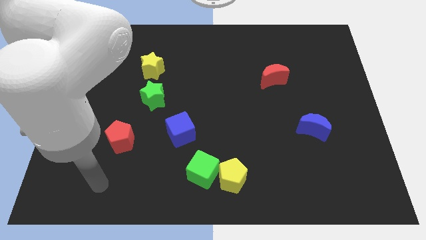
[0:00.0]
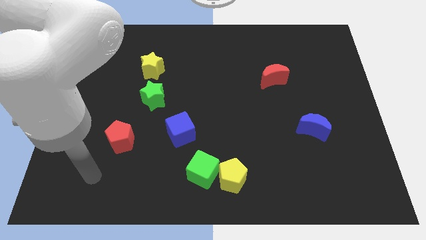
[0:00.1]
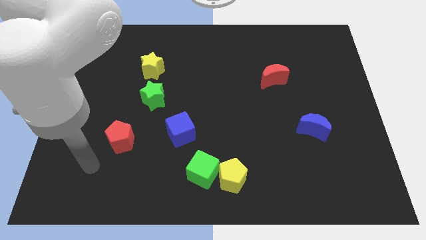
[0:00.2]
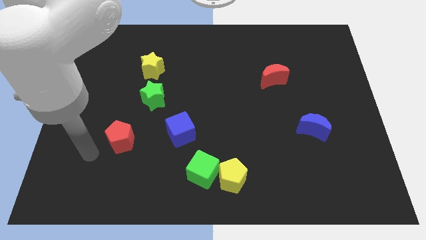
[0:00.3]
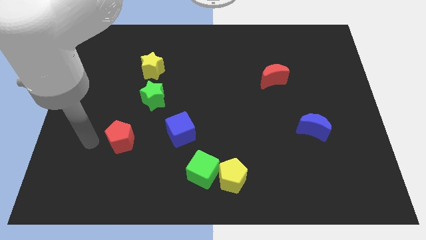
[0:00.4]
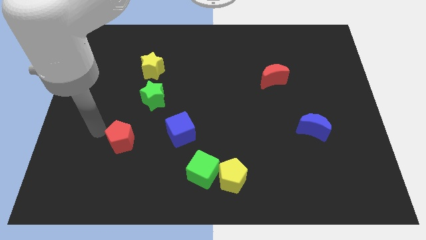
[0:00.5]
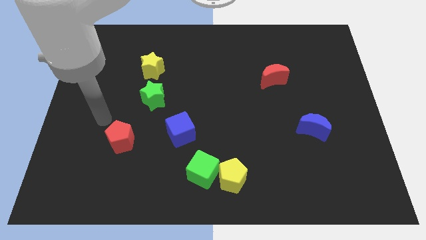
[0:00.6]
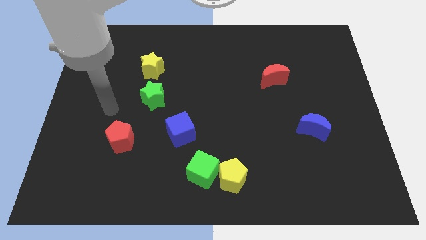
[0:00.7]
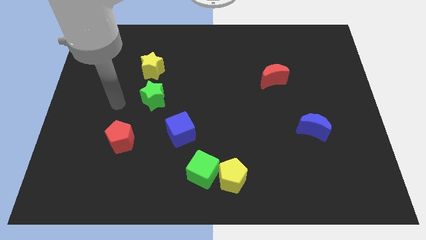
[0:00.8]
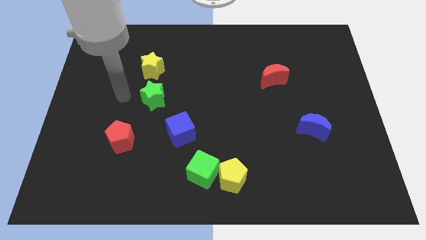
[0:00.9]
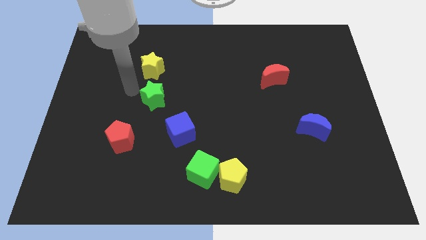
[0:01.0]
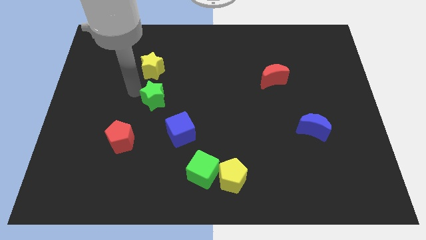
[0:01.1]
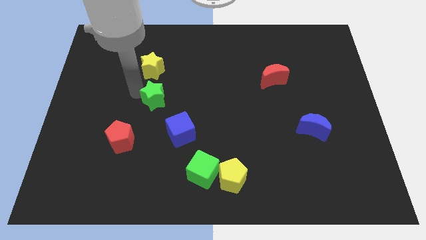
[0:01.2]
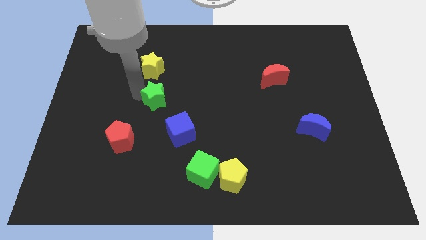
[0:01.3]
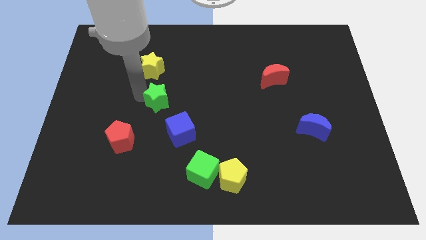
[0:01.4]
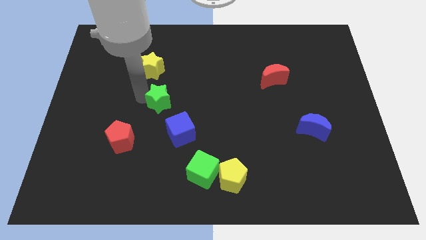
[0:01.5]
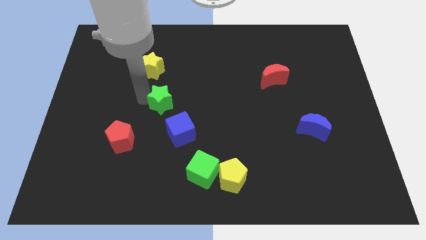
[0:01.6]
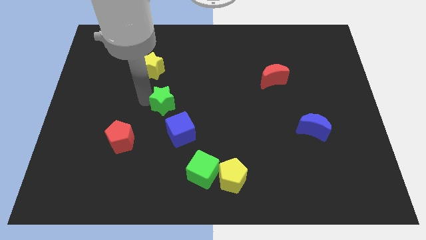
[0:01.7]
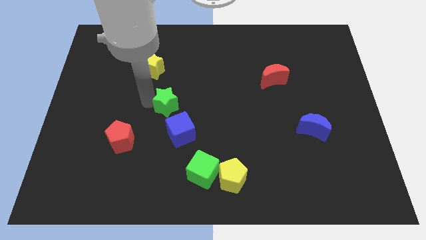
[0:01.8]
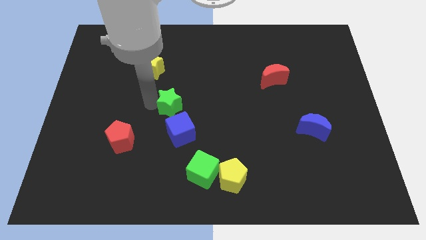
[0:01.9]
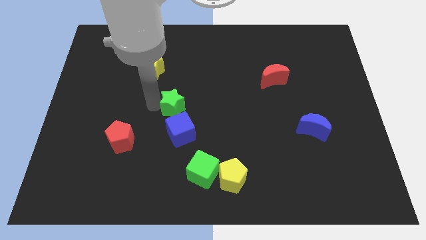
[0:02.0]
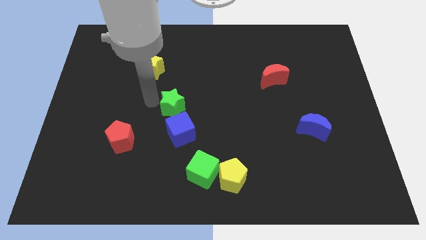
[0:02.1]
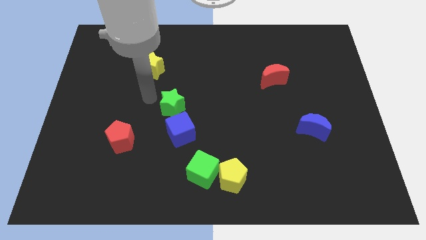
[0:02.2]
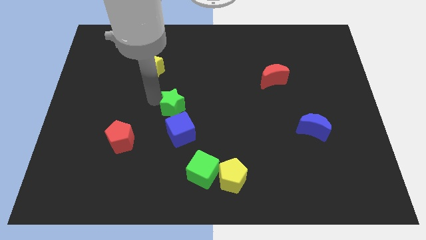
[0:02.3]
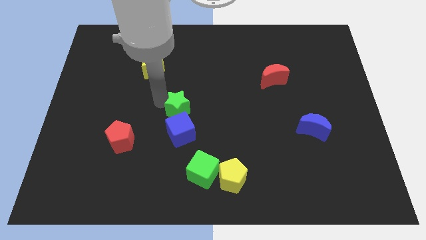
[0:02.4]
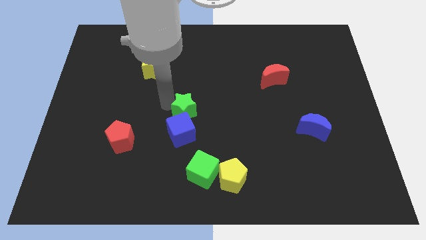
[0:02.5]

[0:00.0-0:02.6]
move the green star diagonally down and right slightly

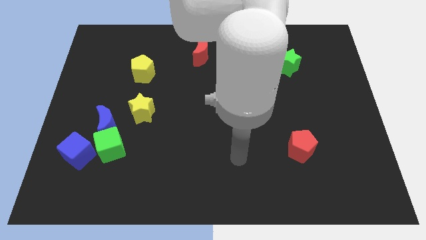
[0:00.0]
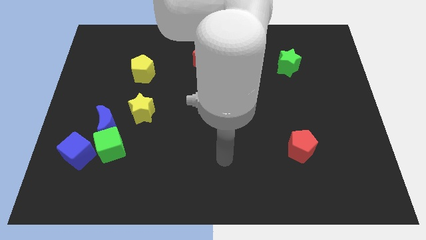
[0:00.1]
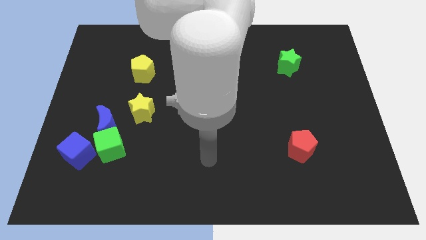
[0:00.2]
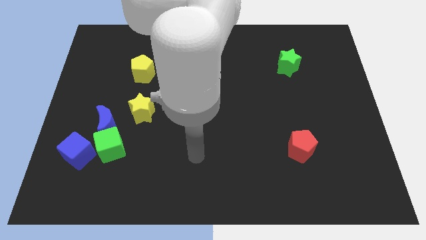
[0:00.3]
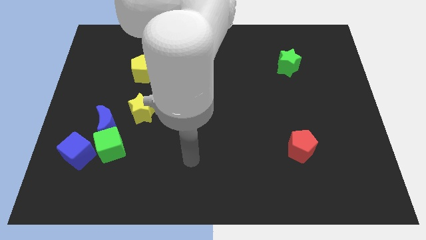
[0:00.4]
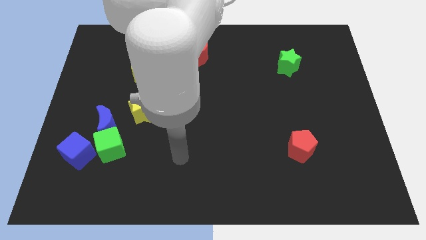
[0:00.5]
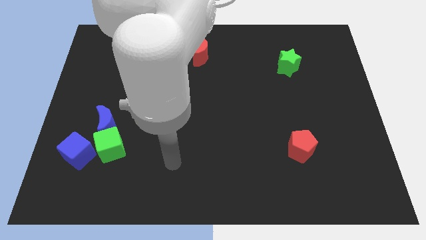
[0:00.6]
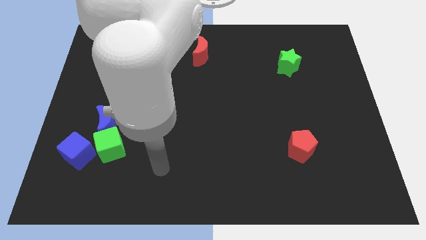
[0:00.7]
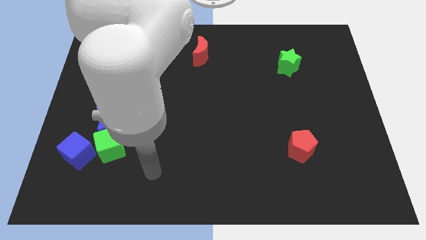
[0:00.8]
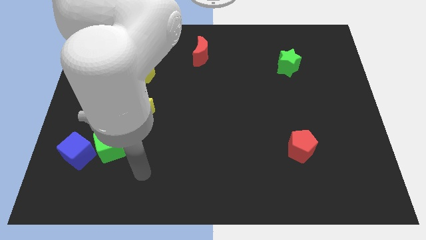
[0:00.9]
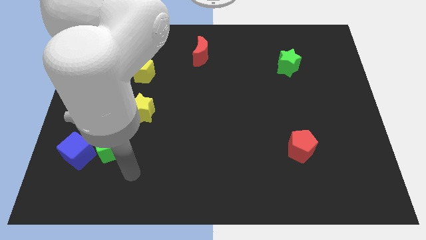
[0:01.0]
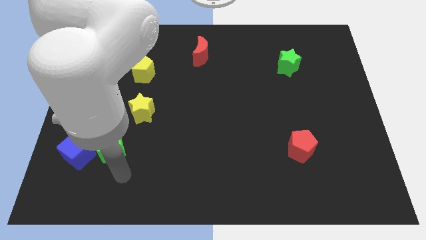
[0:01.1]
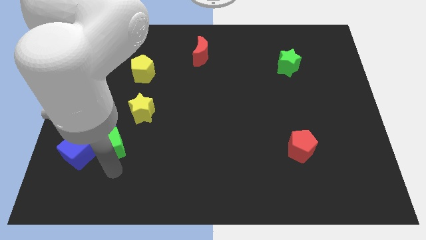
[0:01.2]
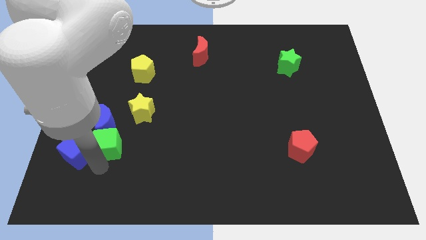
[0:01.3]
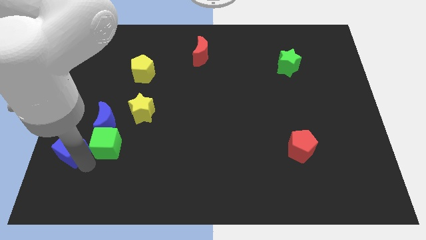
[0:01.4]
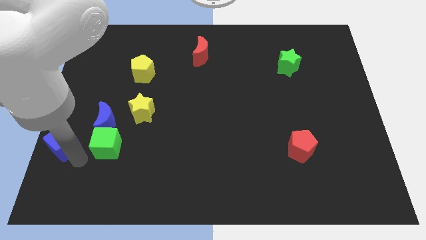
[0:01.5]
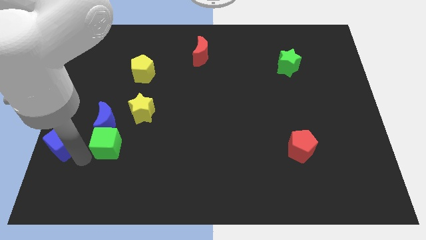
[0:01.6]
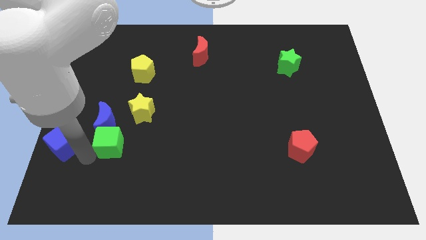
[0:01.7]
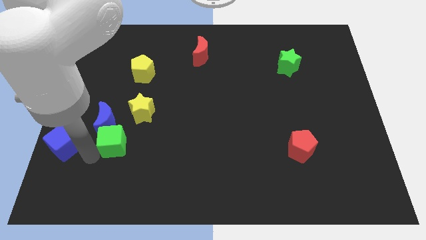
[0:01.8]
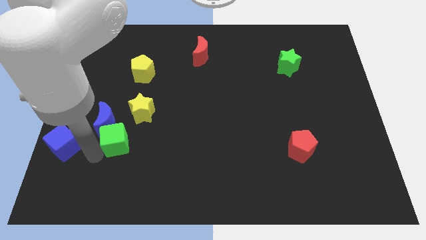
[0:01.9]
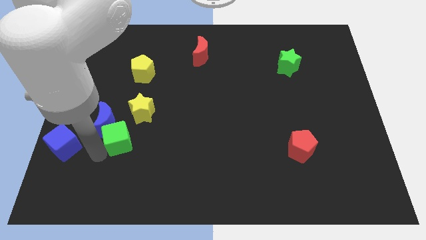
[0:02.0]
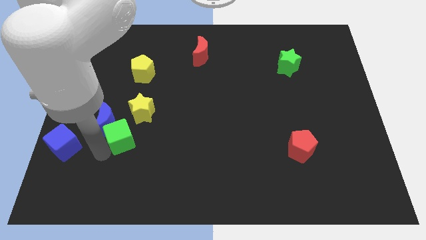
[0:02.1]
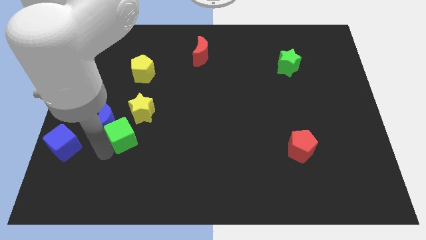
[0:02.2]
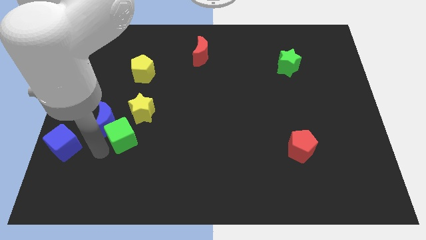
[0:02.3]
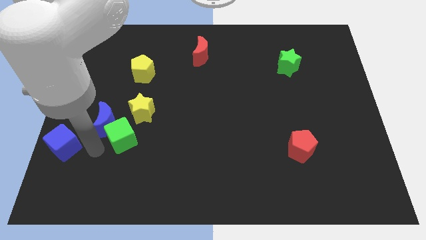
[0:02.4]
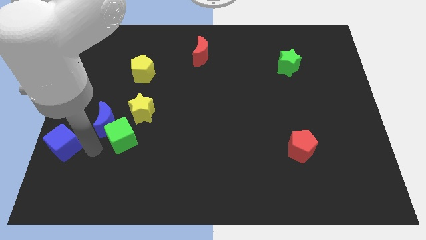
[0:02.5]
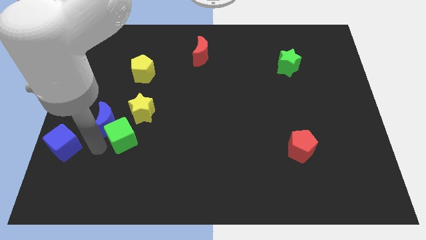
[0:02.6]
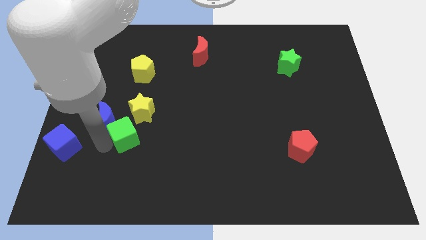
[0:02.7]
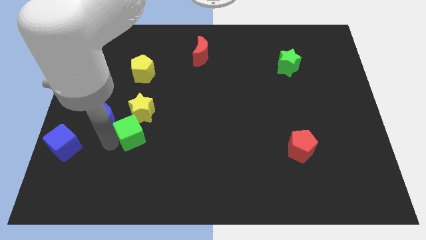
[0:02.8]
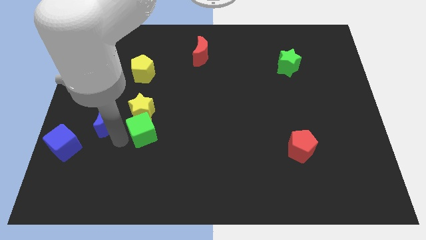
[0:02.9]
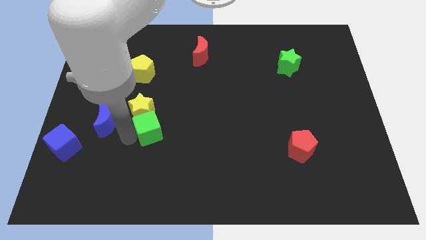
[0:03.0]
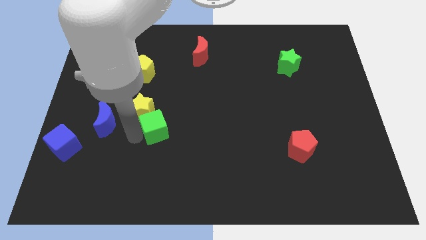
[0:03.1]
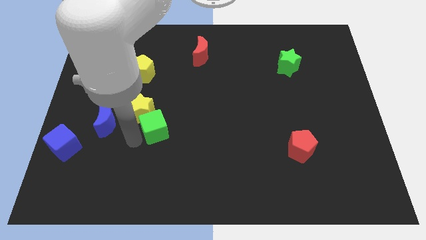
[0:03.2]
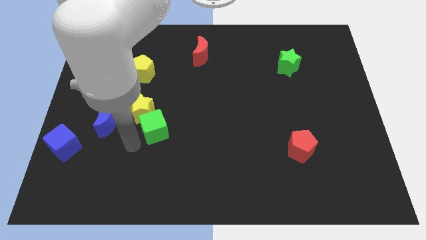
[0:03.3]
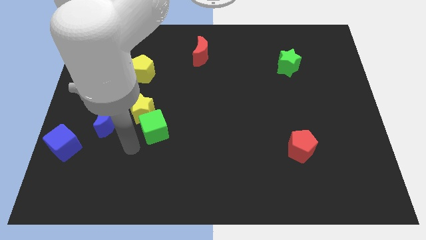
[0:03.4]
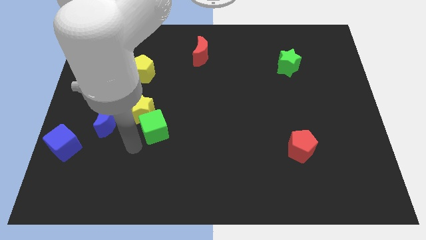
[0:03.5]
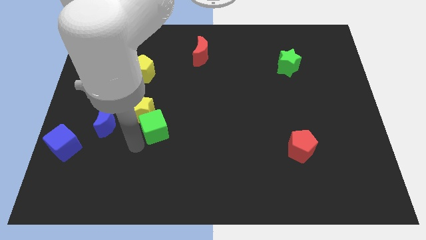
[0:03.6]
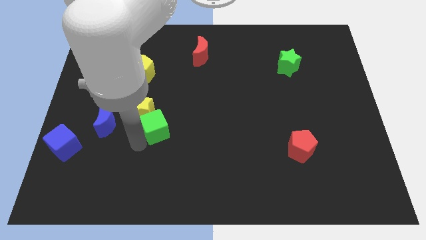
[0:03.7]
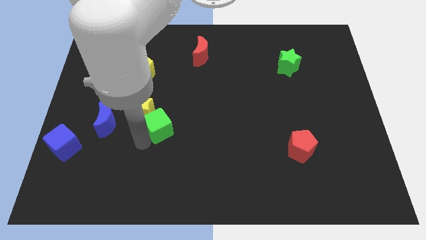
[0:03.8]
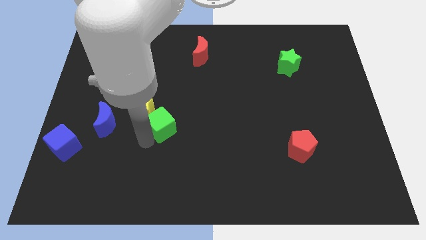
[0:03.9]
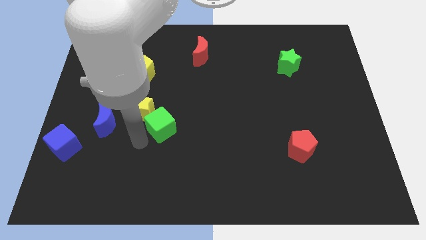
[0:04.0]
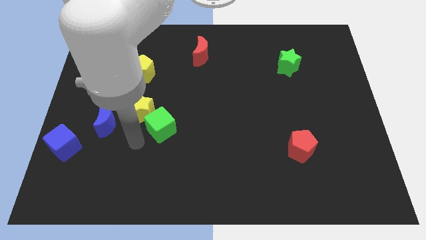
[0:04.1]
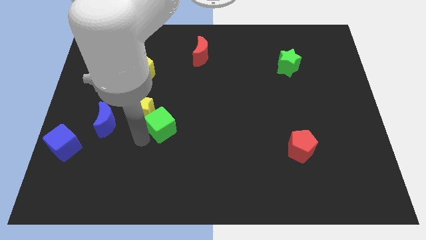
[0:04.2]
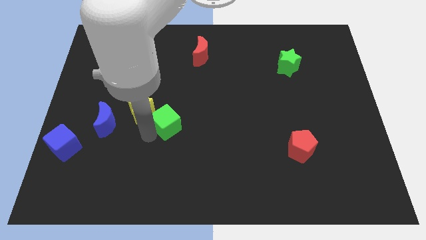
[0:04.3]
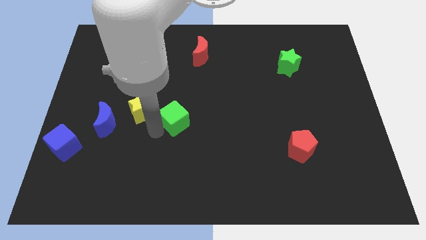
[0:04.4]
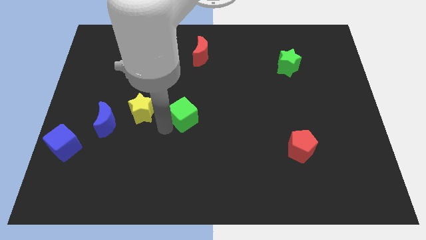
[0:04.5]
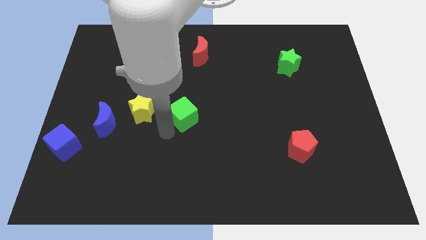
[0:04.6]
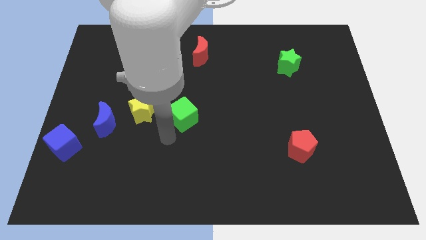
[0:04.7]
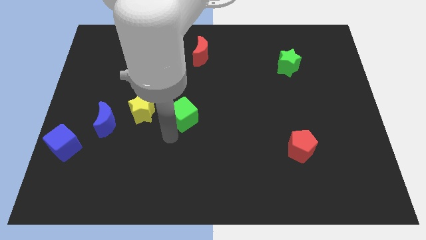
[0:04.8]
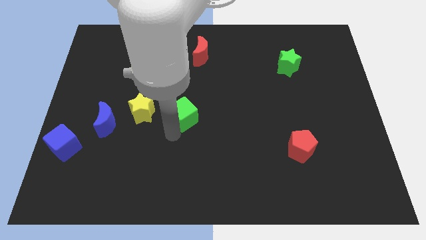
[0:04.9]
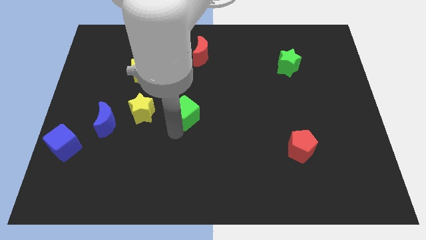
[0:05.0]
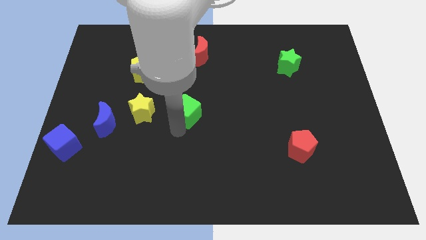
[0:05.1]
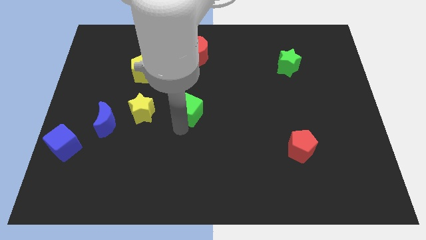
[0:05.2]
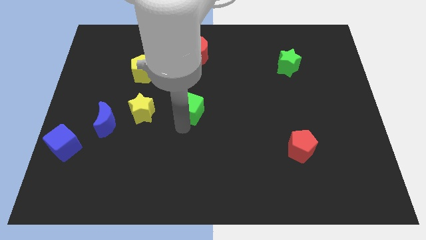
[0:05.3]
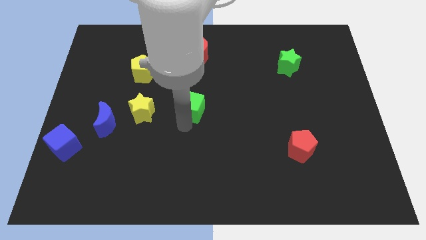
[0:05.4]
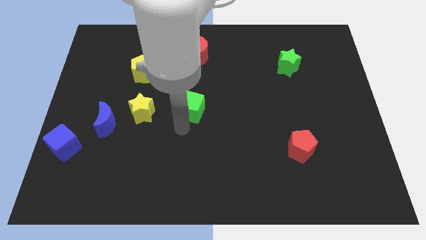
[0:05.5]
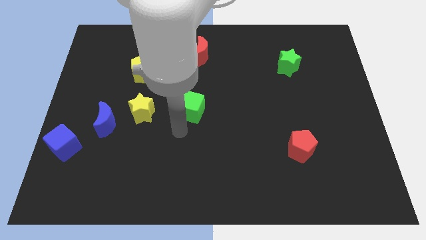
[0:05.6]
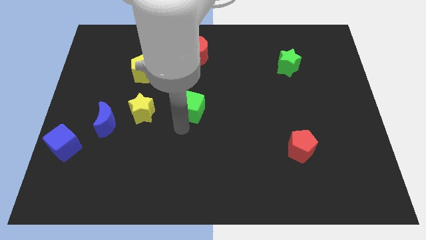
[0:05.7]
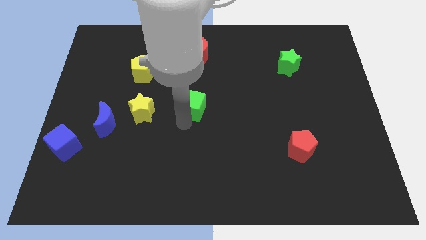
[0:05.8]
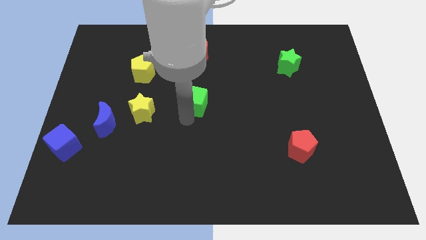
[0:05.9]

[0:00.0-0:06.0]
move the green cube up and then right
